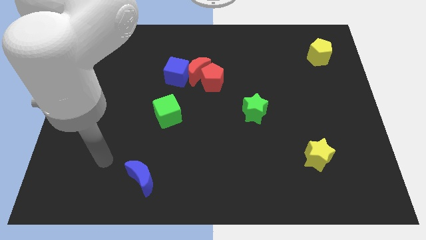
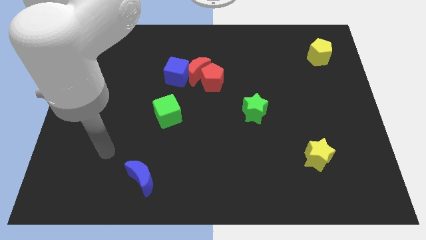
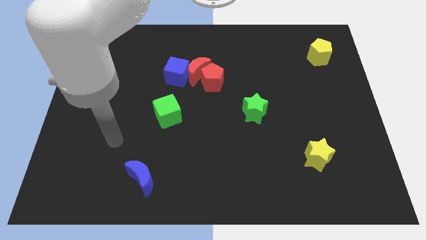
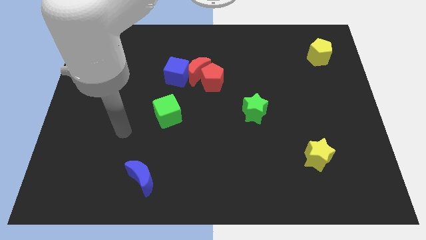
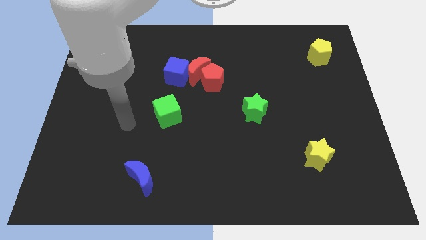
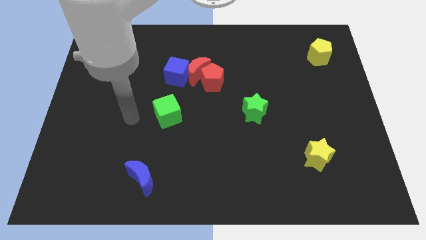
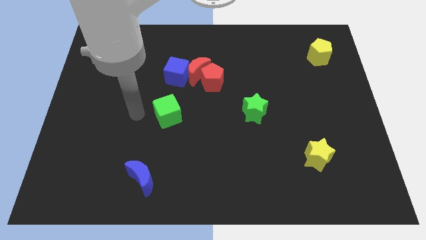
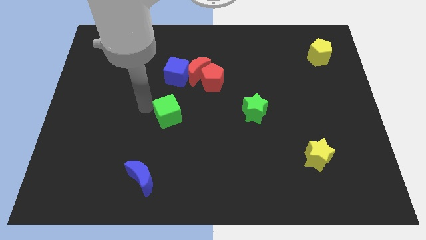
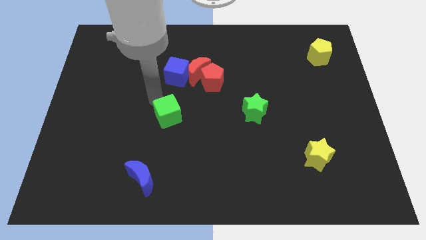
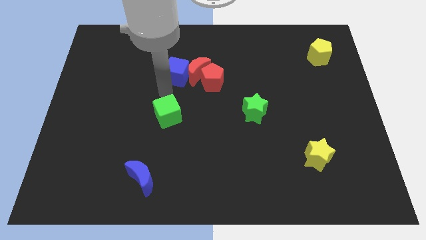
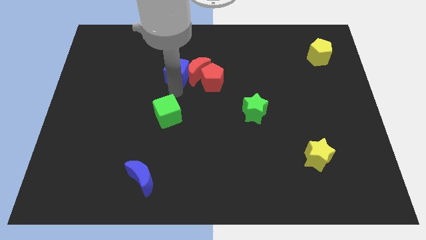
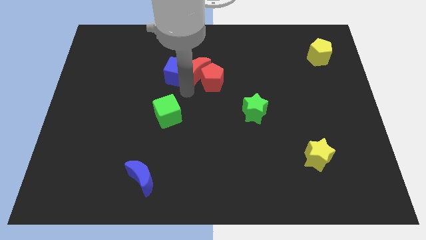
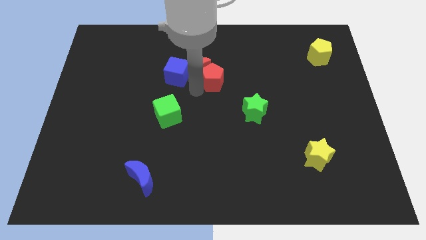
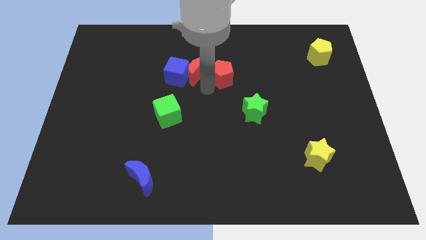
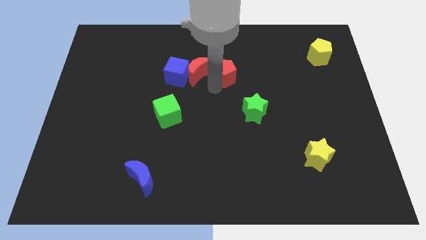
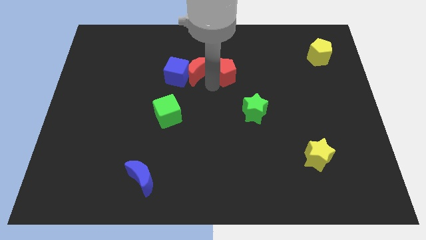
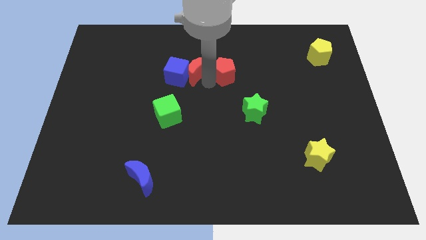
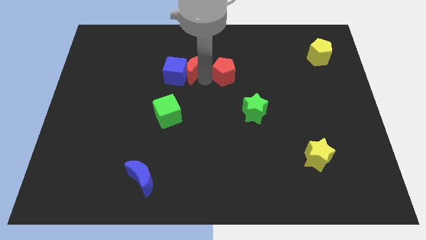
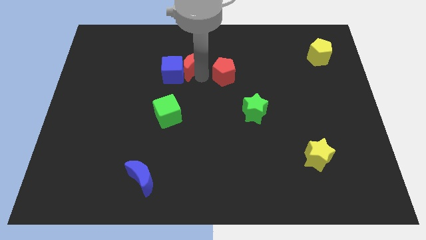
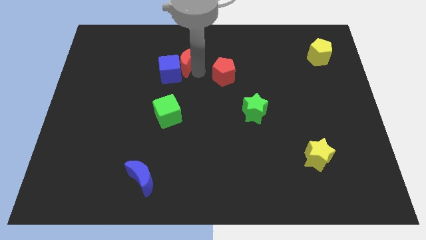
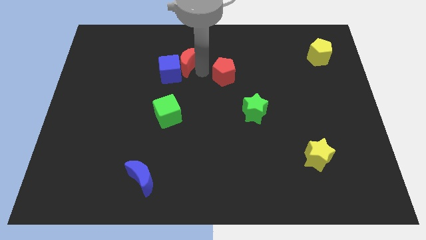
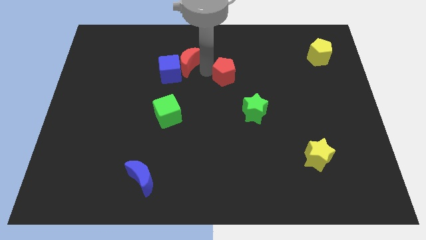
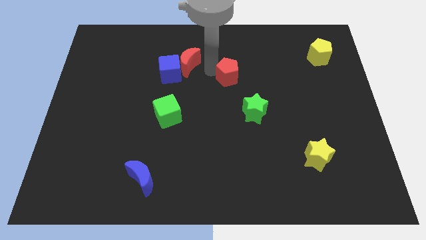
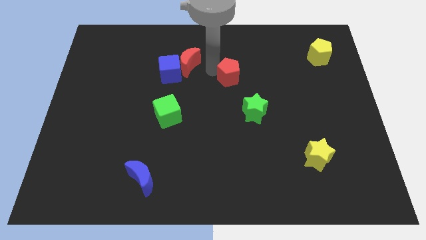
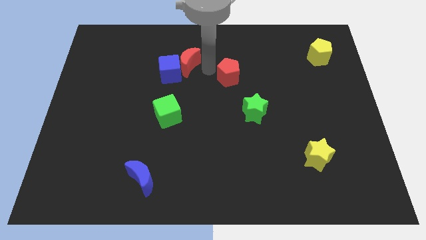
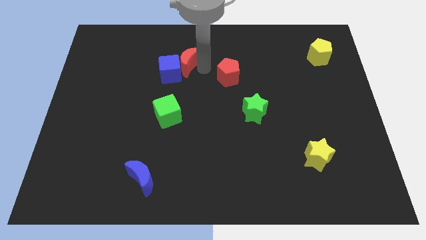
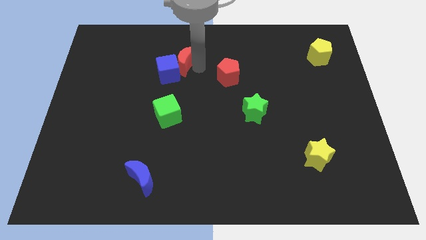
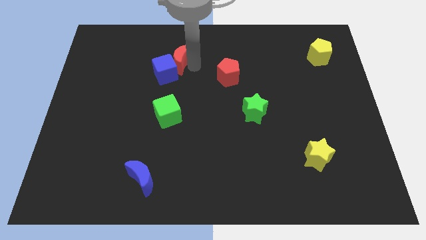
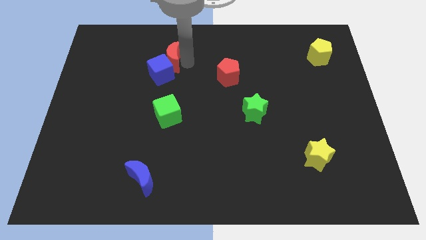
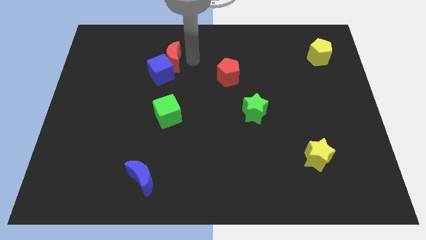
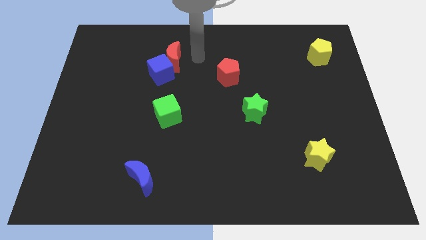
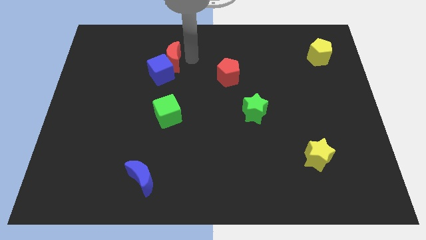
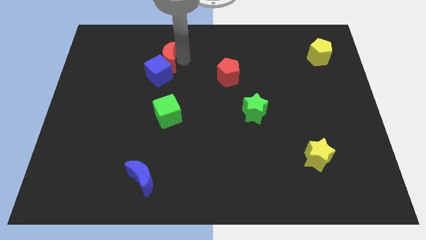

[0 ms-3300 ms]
slide the red moon left a little bit

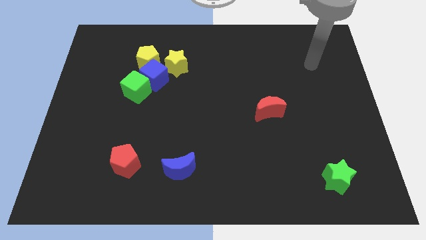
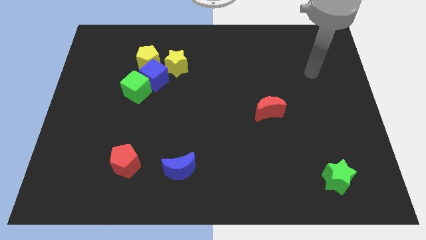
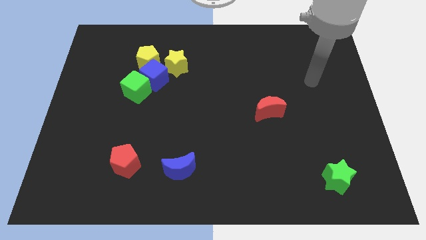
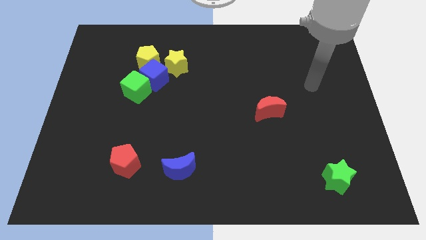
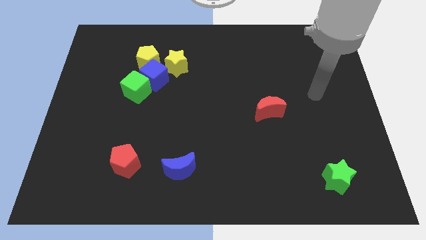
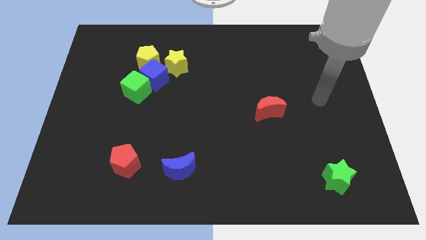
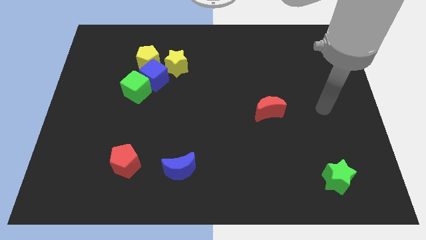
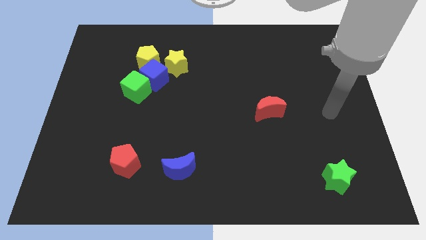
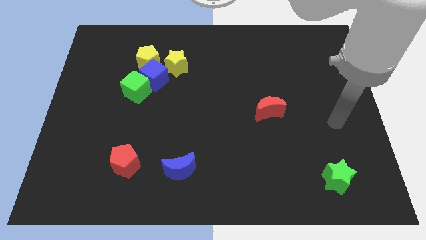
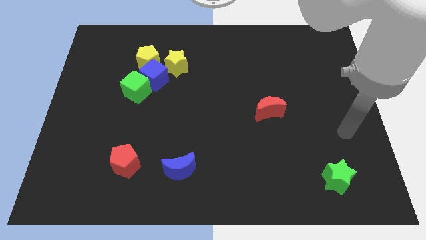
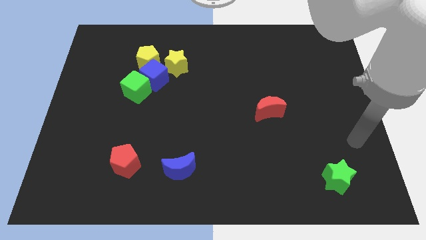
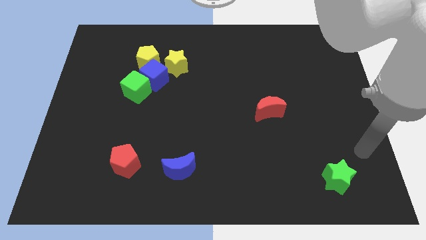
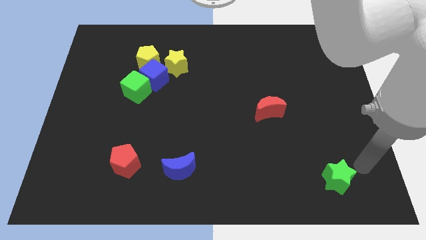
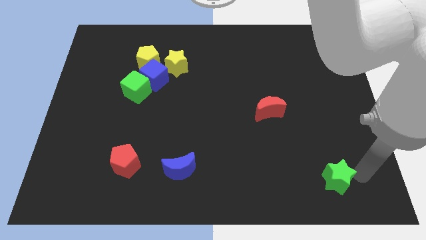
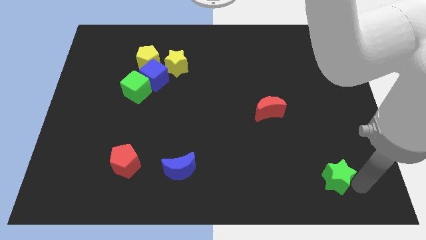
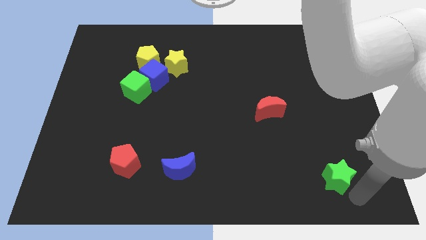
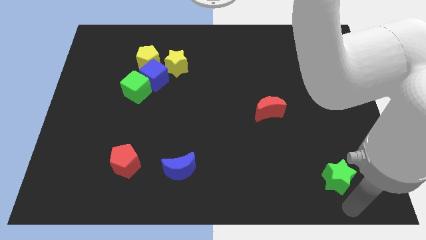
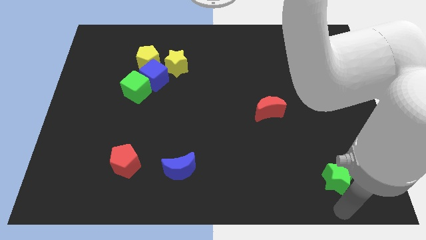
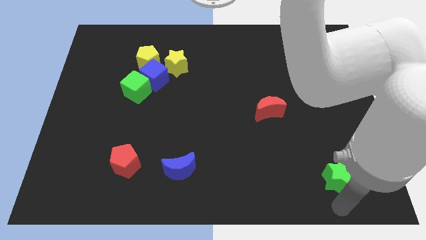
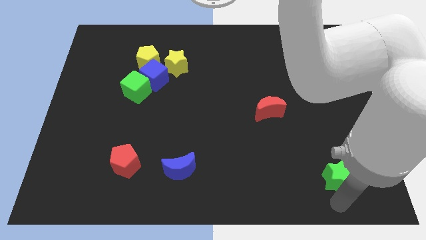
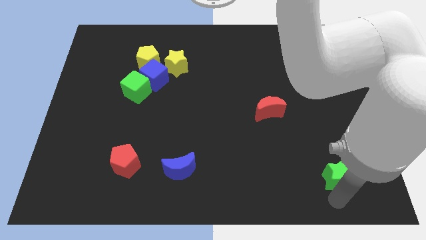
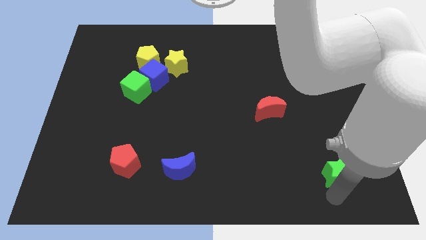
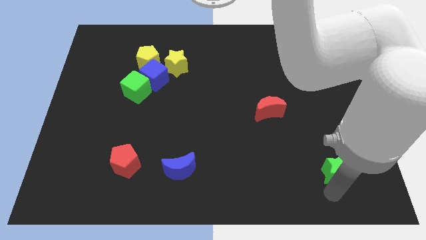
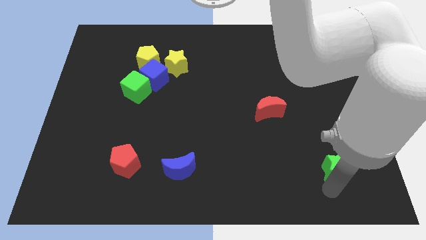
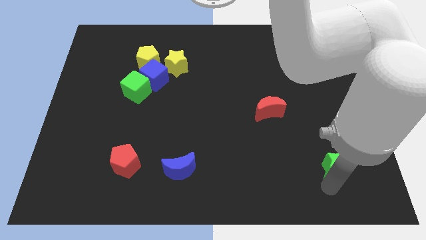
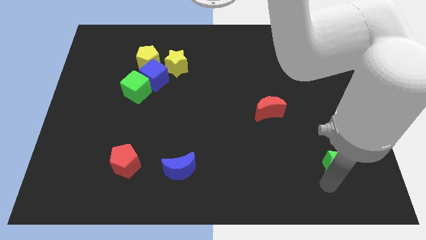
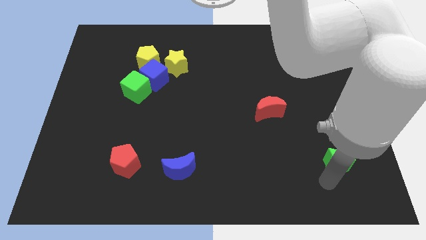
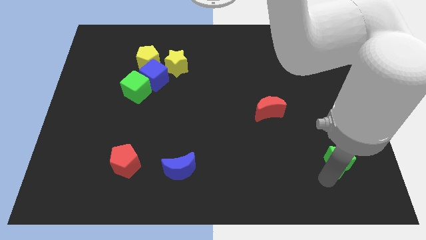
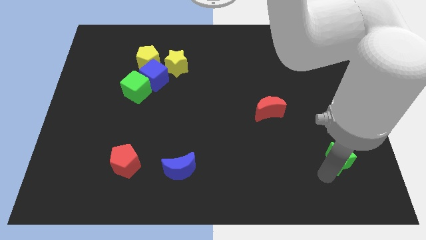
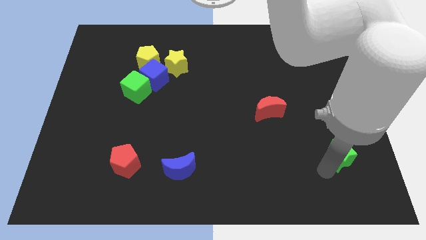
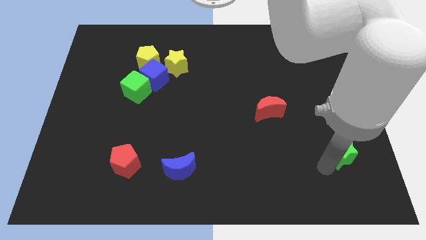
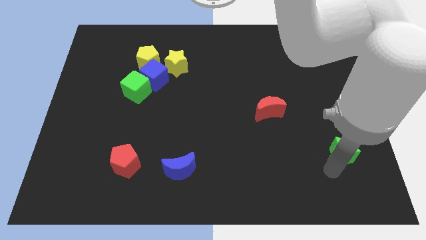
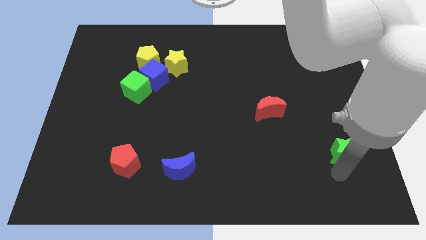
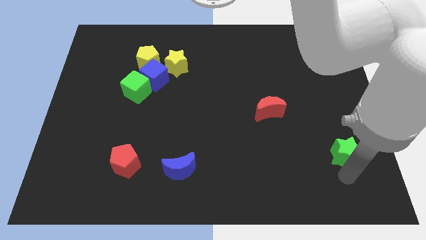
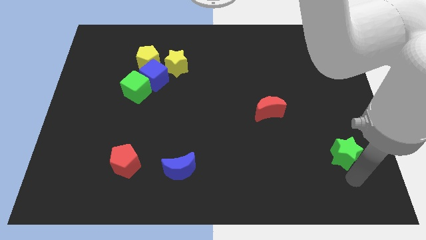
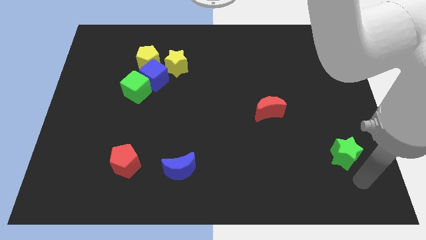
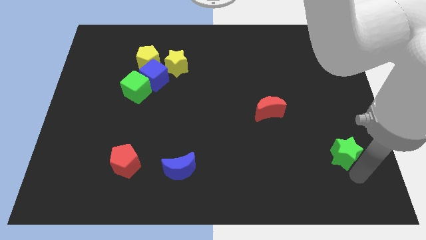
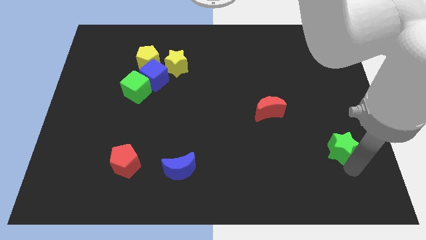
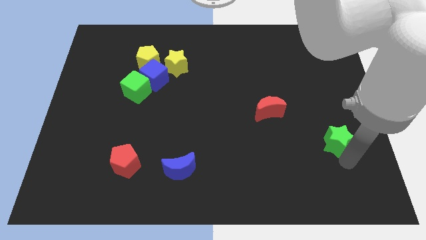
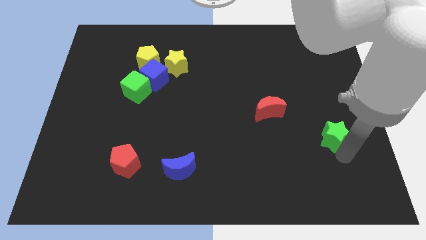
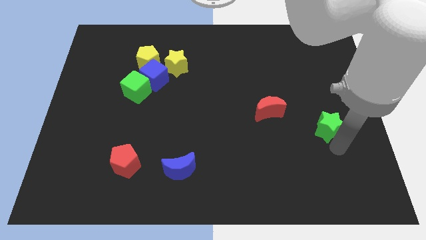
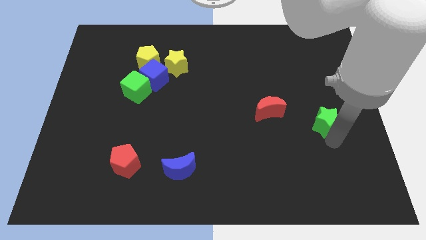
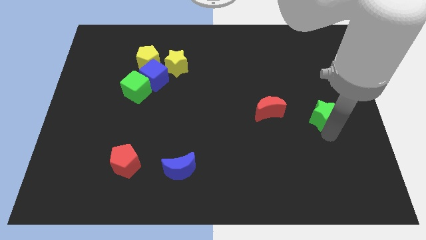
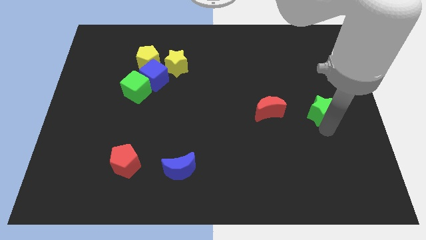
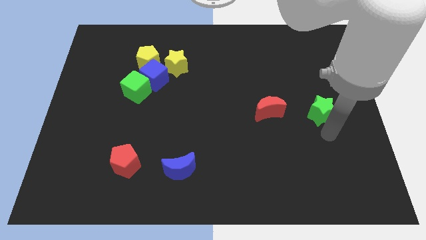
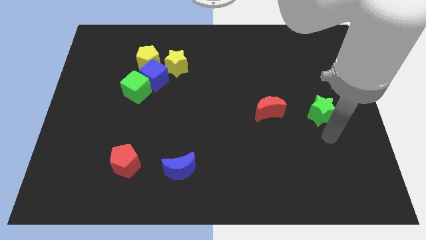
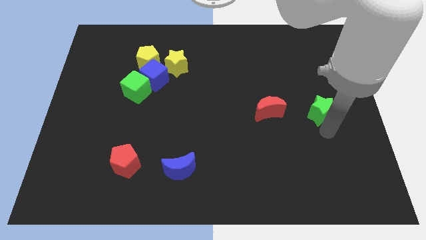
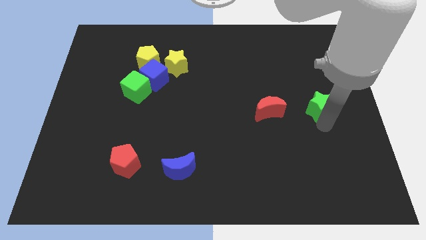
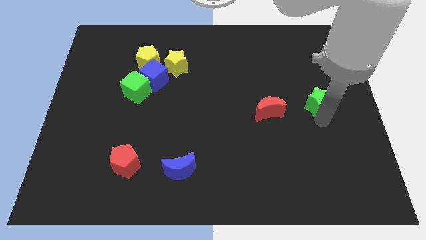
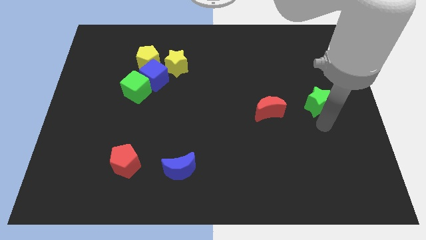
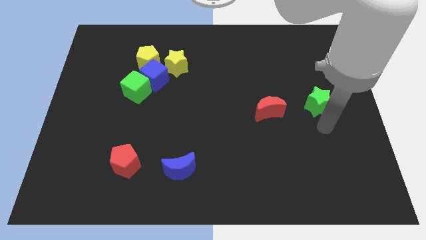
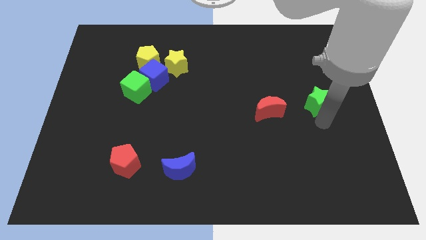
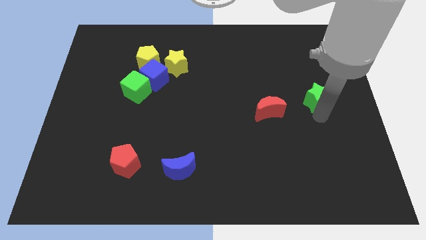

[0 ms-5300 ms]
push the green star up
